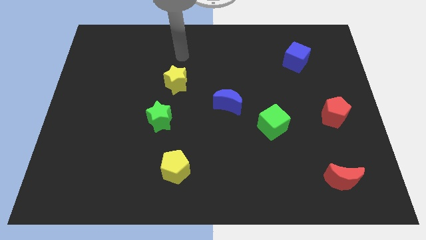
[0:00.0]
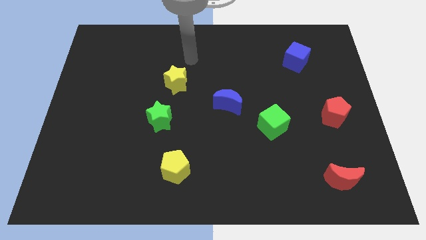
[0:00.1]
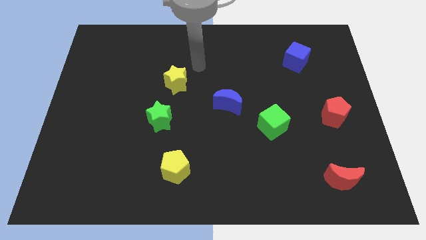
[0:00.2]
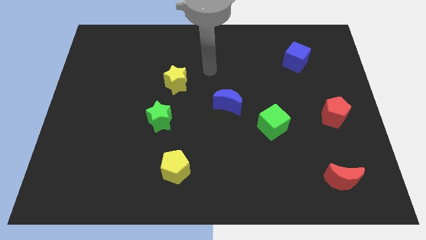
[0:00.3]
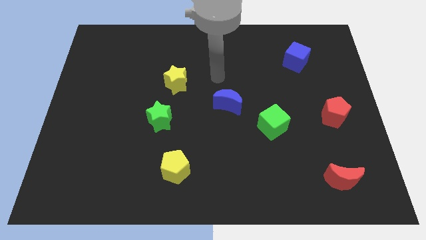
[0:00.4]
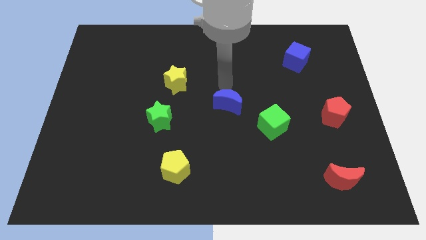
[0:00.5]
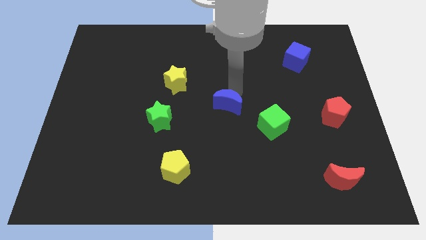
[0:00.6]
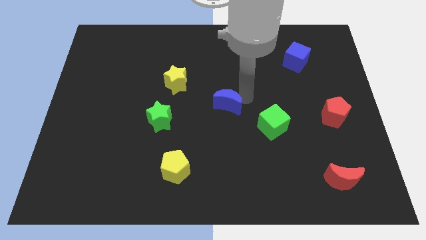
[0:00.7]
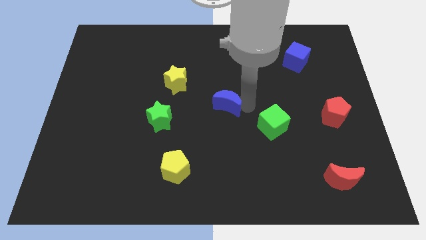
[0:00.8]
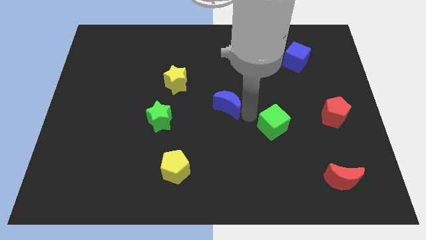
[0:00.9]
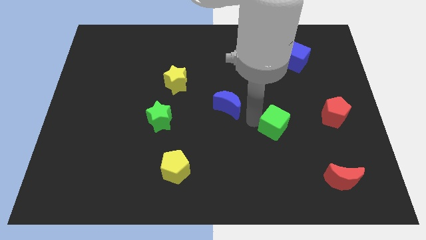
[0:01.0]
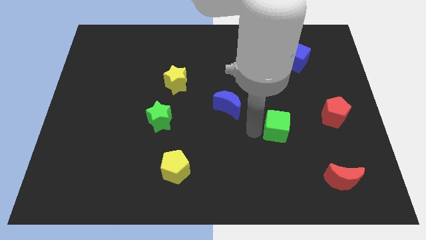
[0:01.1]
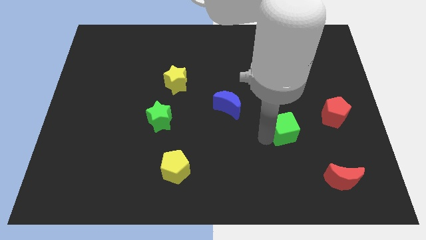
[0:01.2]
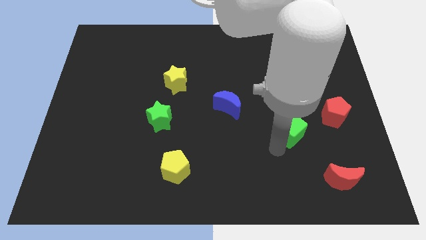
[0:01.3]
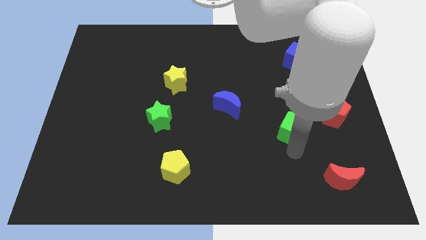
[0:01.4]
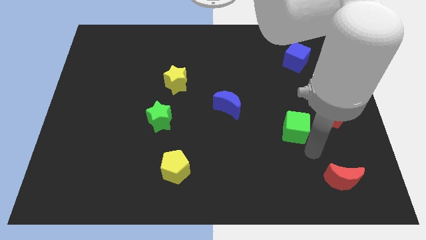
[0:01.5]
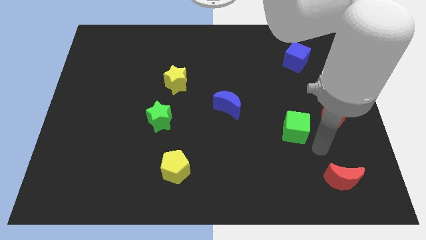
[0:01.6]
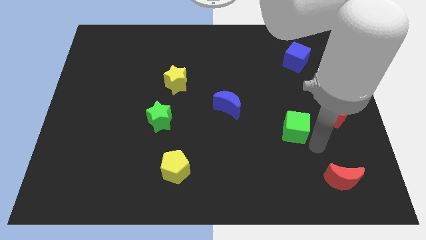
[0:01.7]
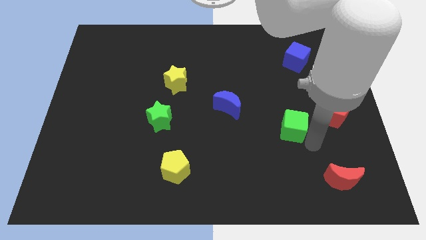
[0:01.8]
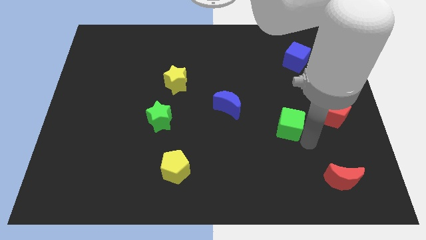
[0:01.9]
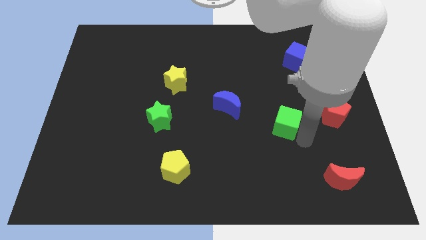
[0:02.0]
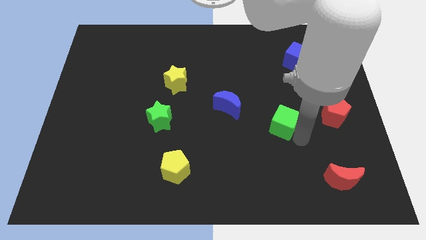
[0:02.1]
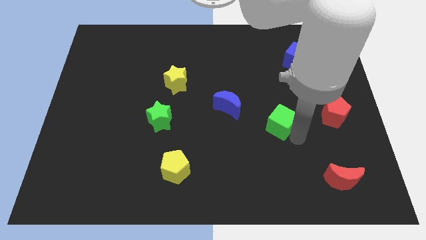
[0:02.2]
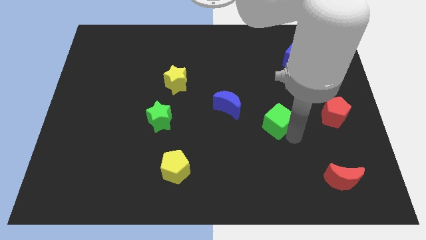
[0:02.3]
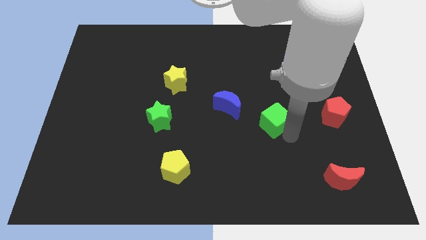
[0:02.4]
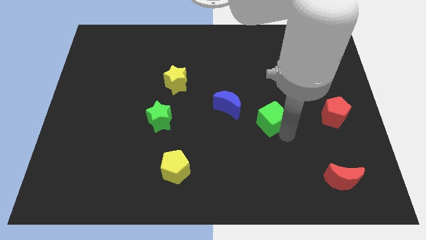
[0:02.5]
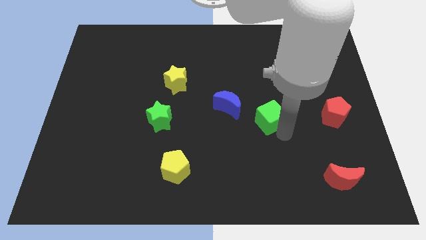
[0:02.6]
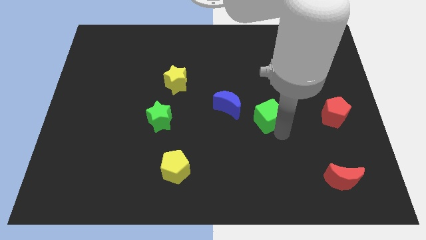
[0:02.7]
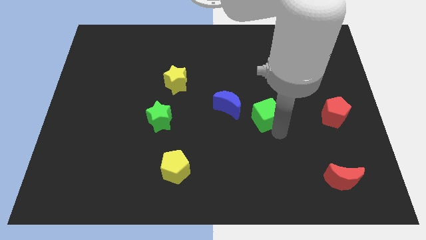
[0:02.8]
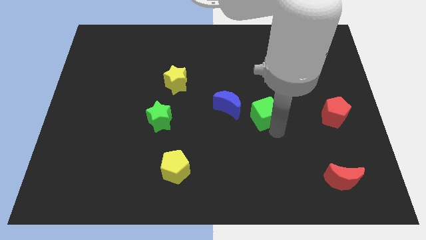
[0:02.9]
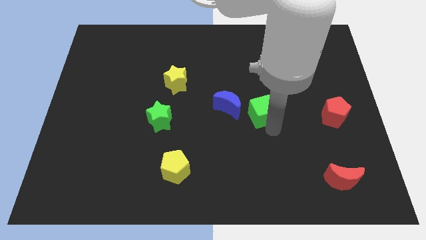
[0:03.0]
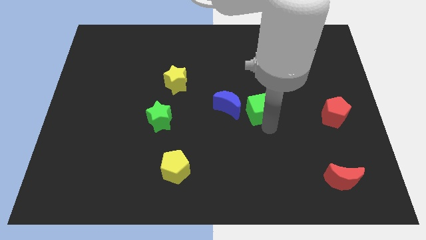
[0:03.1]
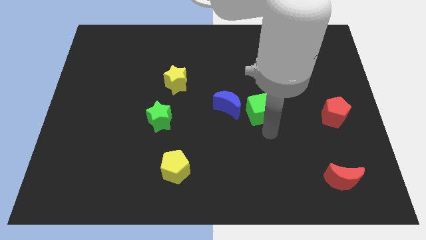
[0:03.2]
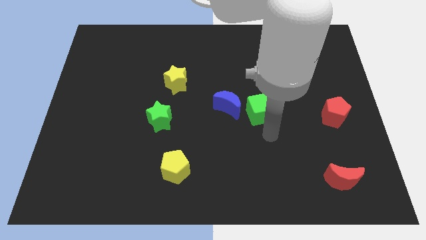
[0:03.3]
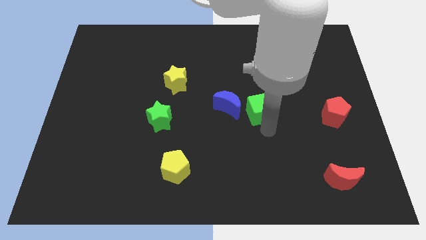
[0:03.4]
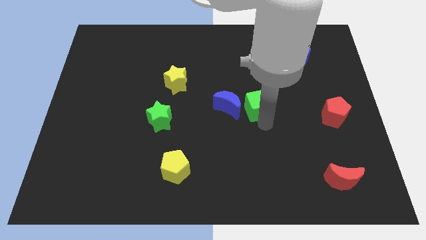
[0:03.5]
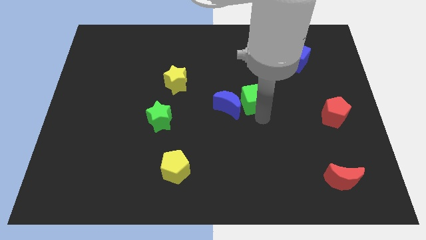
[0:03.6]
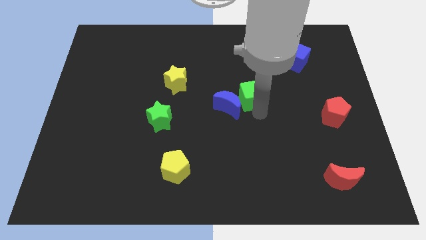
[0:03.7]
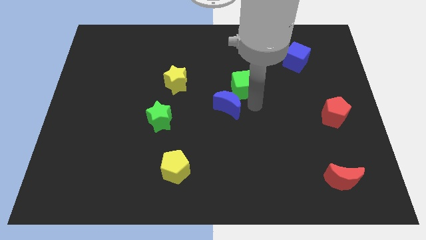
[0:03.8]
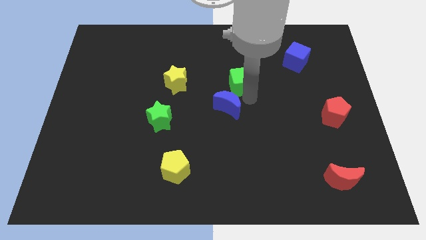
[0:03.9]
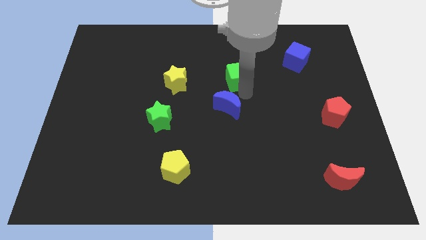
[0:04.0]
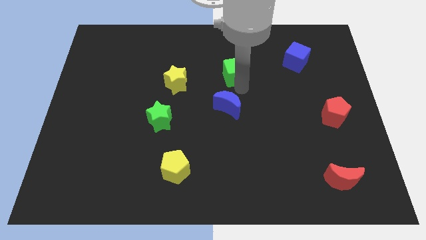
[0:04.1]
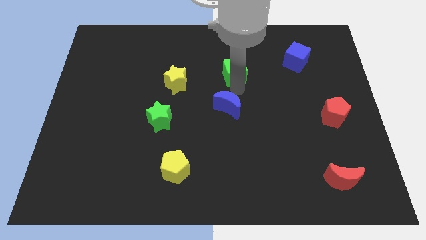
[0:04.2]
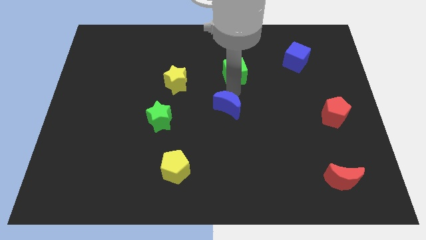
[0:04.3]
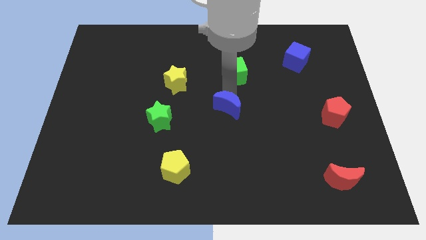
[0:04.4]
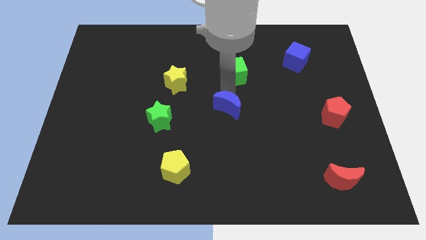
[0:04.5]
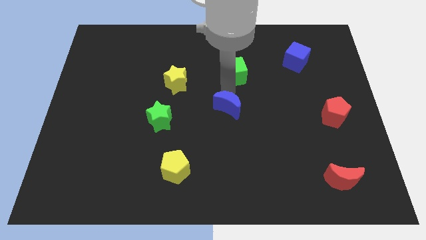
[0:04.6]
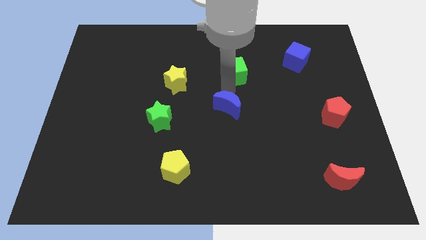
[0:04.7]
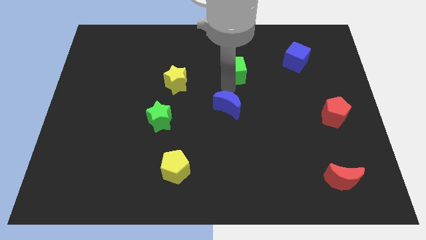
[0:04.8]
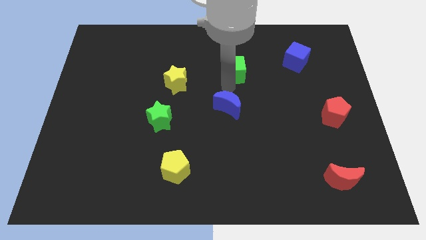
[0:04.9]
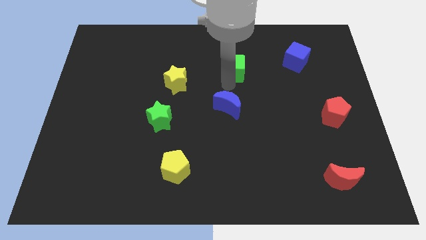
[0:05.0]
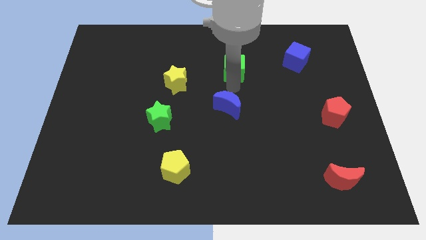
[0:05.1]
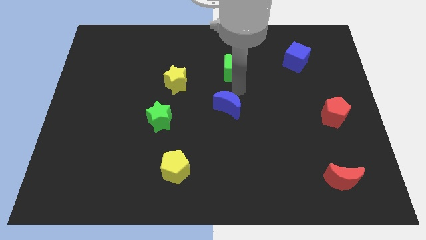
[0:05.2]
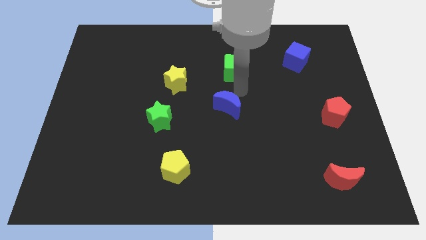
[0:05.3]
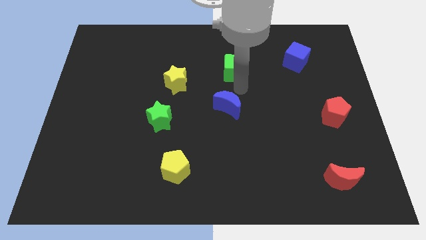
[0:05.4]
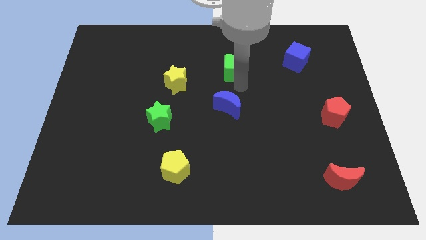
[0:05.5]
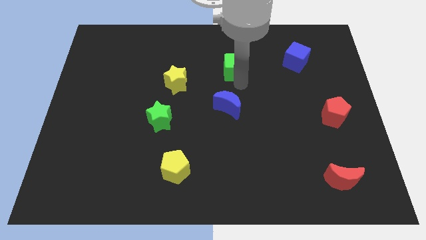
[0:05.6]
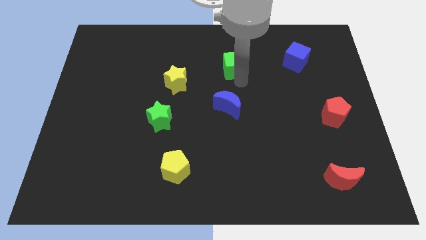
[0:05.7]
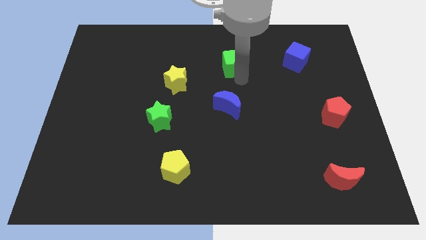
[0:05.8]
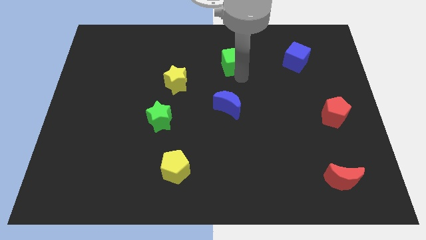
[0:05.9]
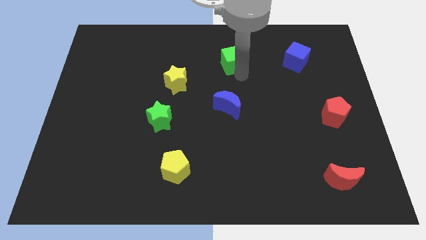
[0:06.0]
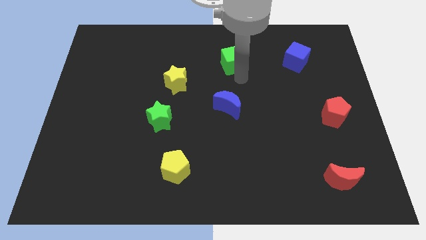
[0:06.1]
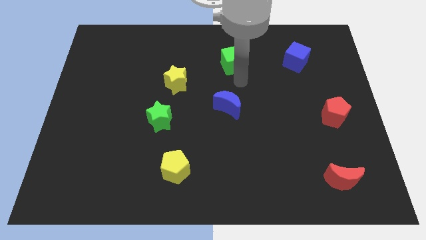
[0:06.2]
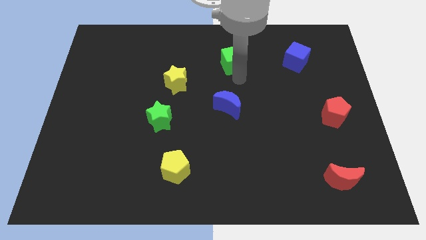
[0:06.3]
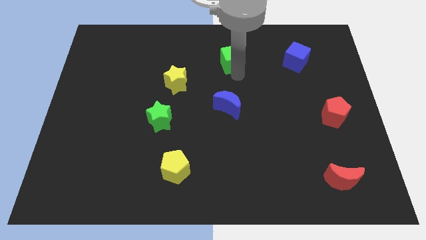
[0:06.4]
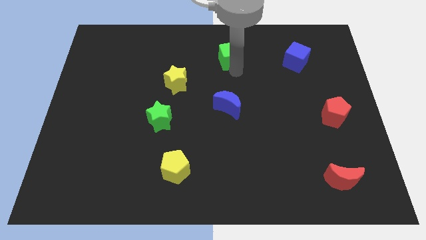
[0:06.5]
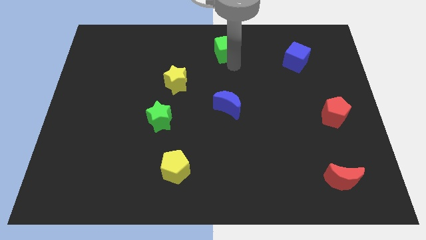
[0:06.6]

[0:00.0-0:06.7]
slide the green cube to the top side
